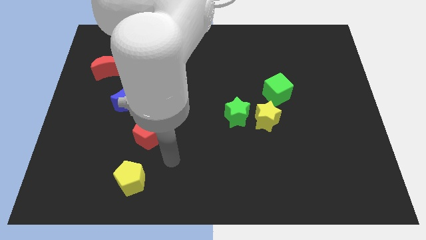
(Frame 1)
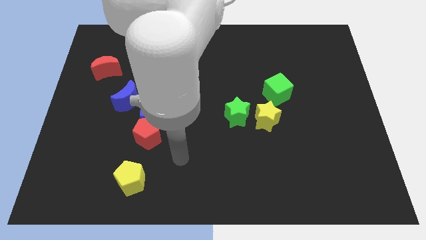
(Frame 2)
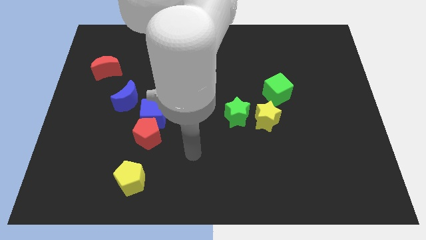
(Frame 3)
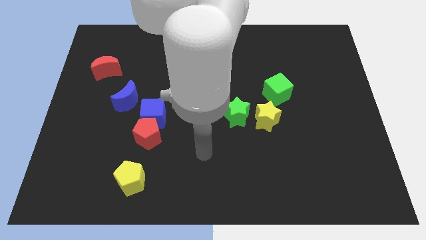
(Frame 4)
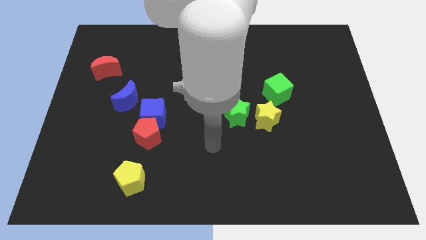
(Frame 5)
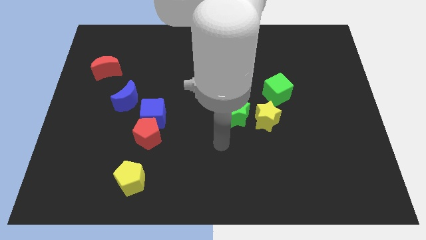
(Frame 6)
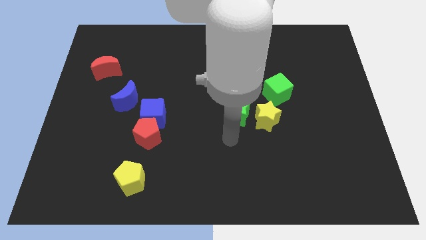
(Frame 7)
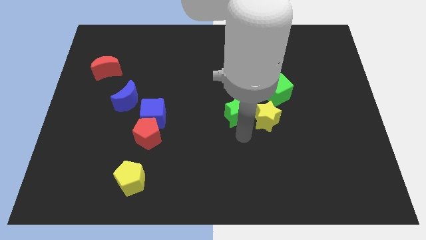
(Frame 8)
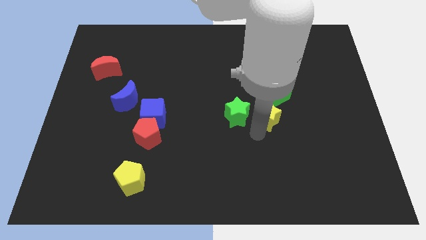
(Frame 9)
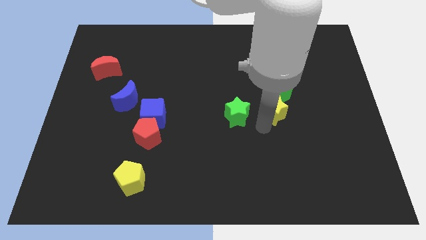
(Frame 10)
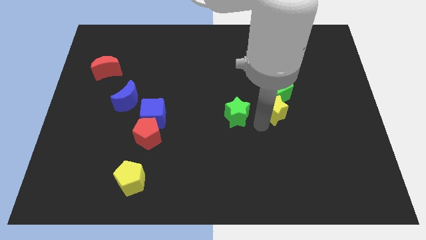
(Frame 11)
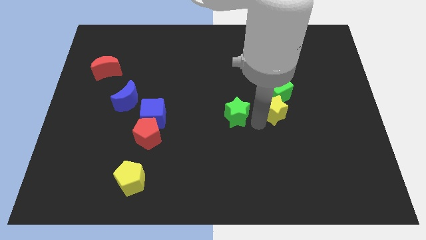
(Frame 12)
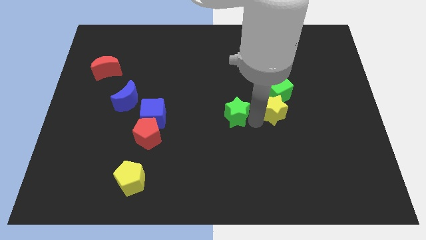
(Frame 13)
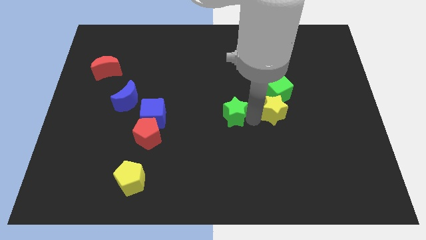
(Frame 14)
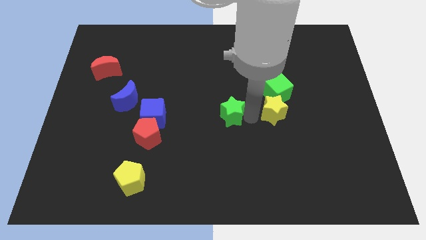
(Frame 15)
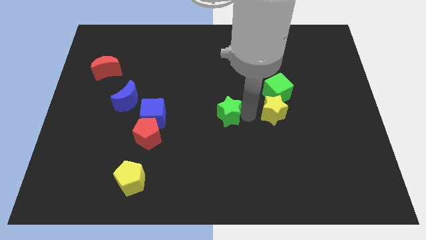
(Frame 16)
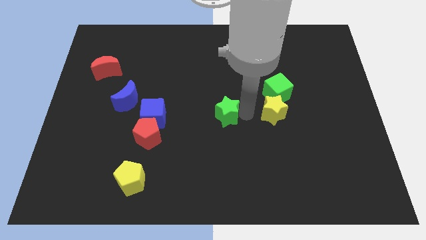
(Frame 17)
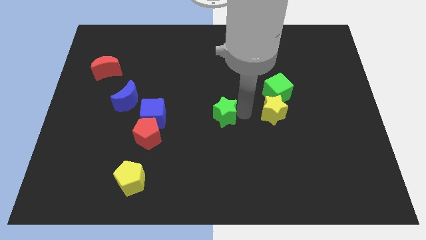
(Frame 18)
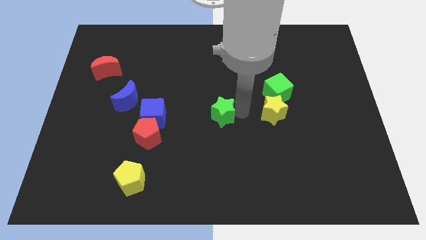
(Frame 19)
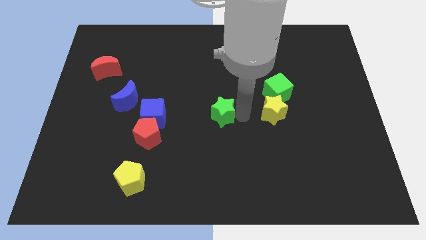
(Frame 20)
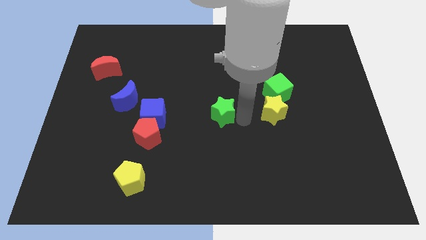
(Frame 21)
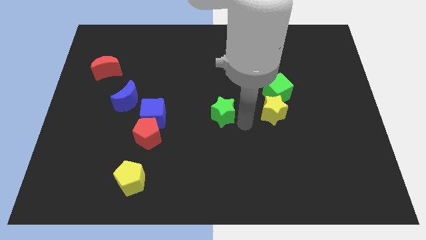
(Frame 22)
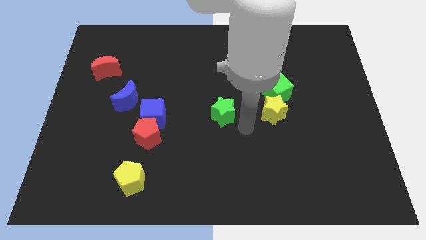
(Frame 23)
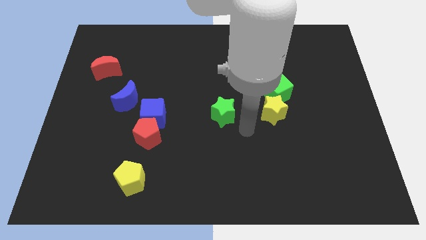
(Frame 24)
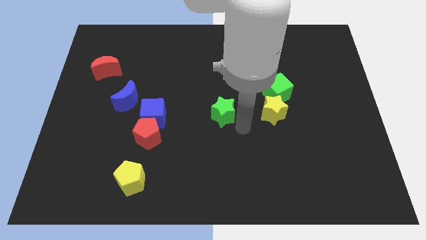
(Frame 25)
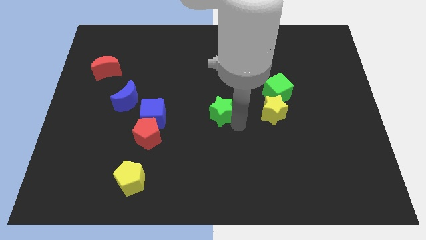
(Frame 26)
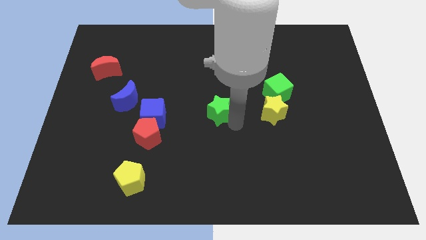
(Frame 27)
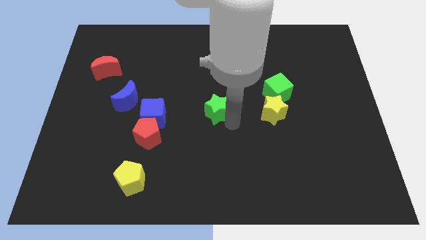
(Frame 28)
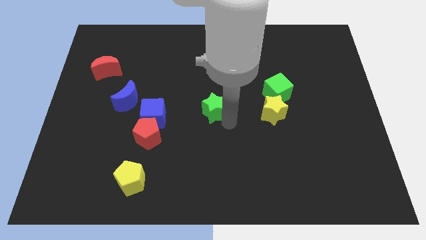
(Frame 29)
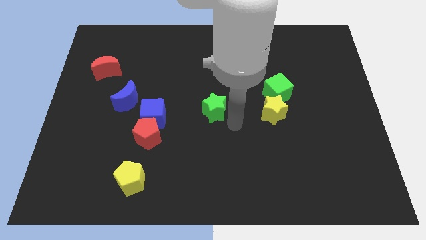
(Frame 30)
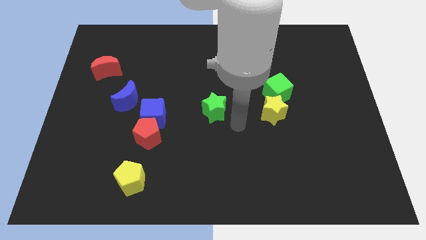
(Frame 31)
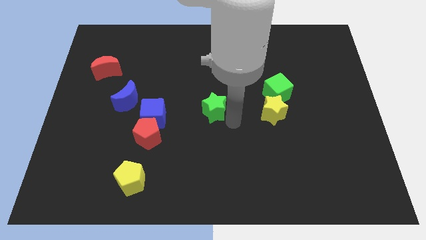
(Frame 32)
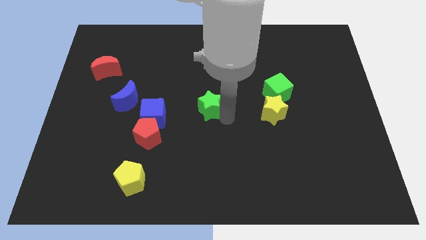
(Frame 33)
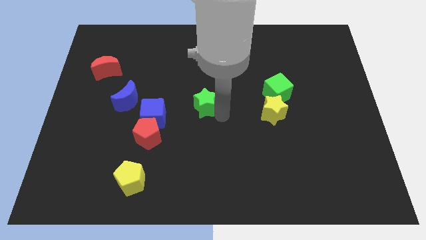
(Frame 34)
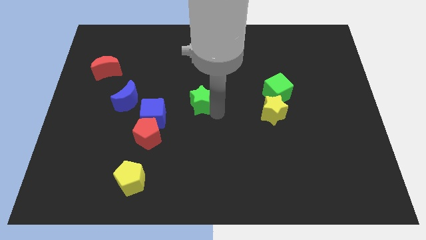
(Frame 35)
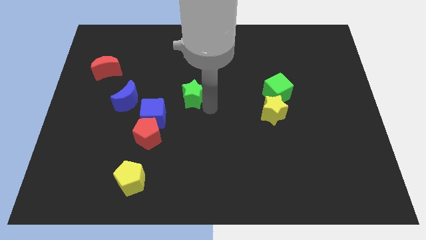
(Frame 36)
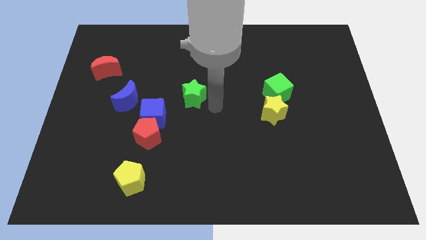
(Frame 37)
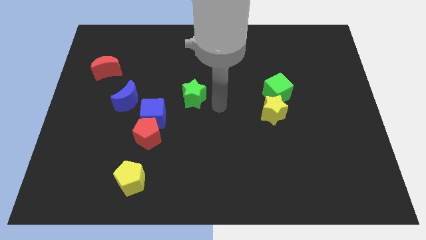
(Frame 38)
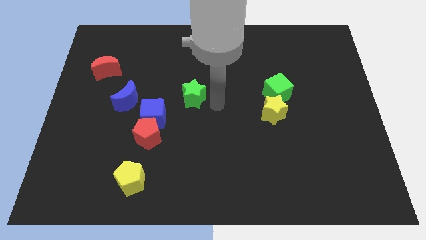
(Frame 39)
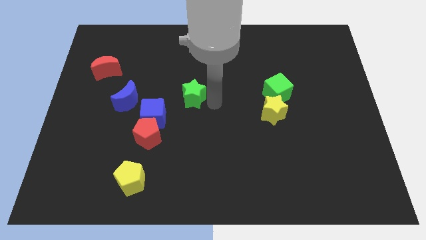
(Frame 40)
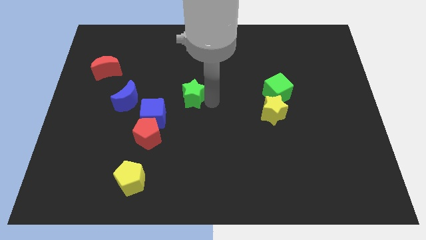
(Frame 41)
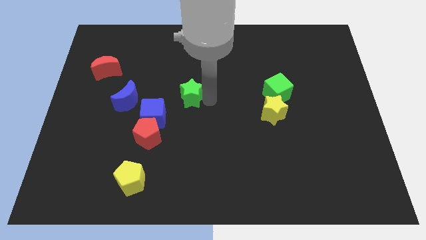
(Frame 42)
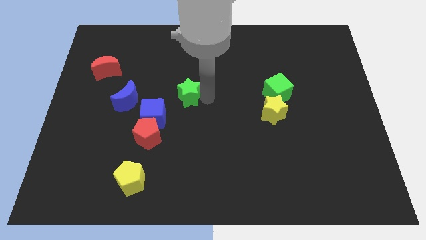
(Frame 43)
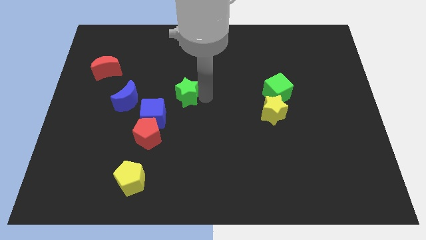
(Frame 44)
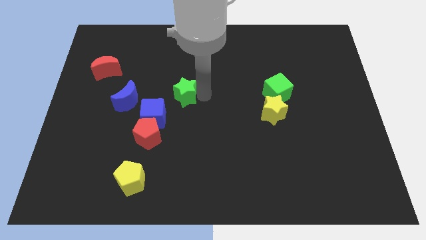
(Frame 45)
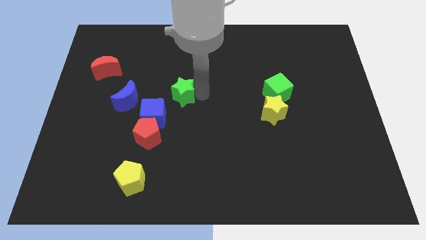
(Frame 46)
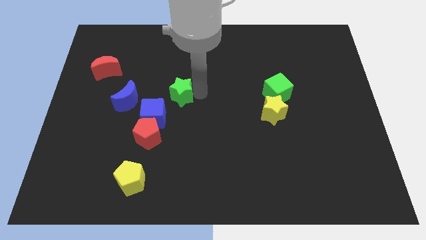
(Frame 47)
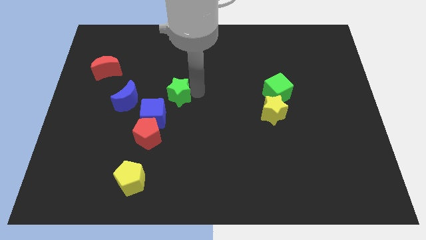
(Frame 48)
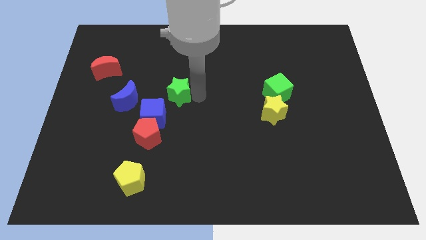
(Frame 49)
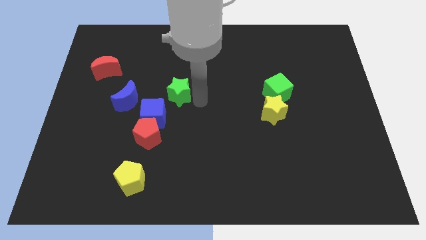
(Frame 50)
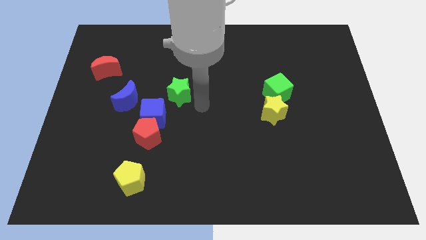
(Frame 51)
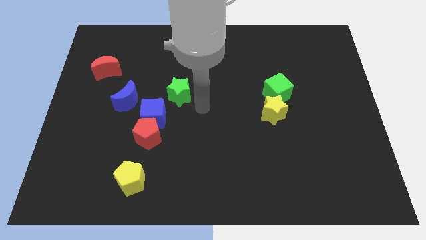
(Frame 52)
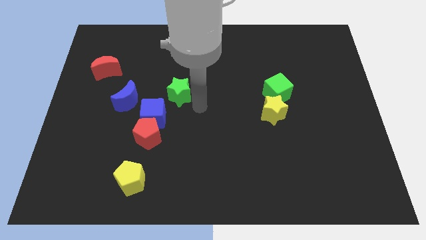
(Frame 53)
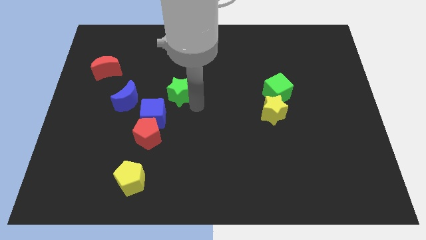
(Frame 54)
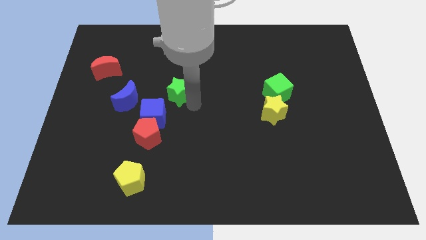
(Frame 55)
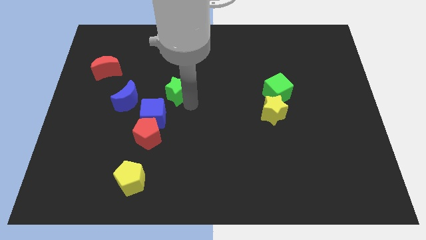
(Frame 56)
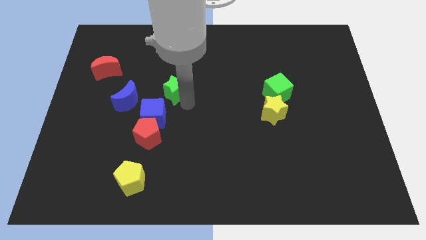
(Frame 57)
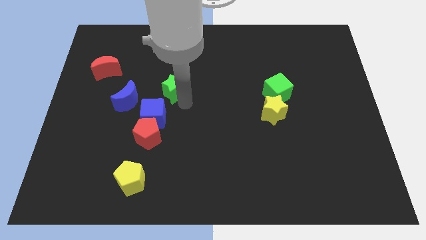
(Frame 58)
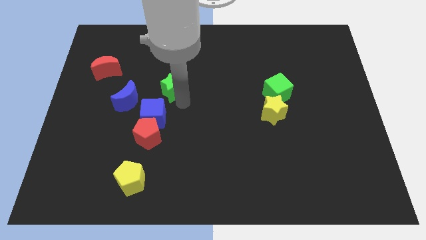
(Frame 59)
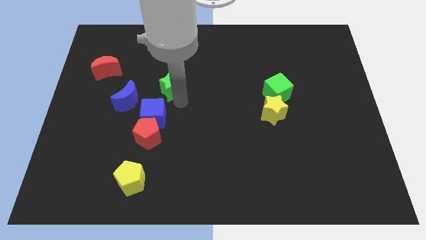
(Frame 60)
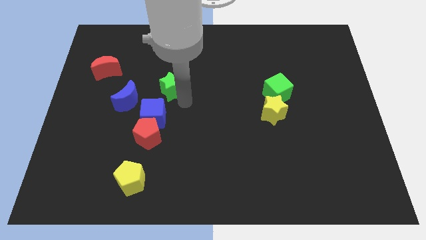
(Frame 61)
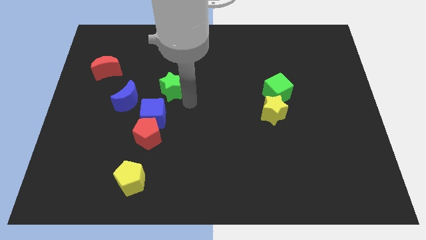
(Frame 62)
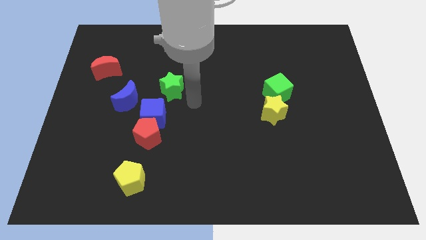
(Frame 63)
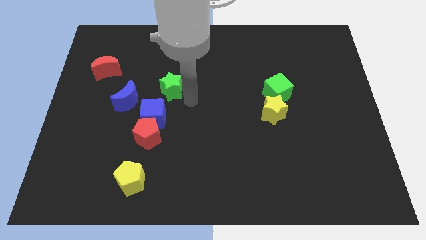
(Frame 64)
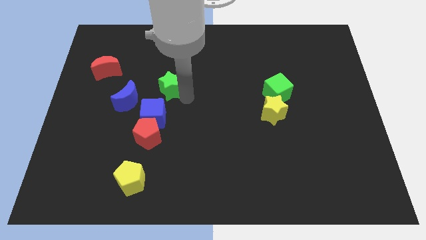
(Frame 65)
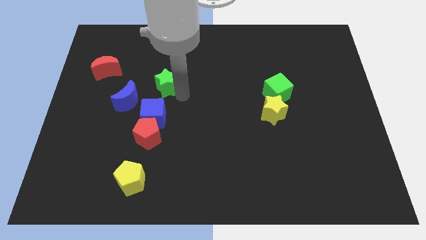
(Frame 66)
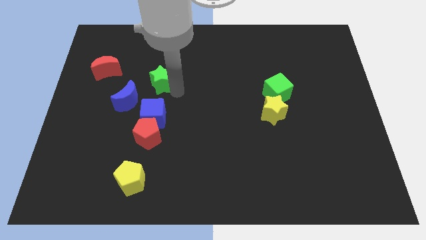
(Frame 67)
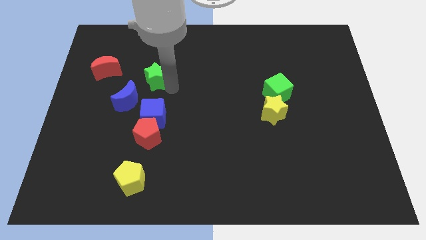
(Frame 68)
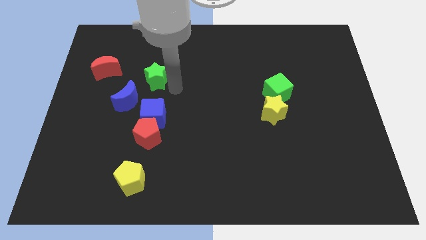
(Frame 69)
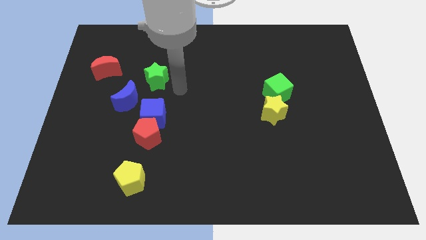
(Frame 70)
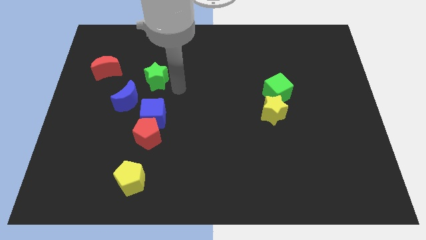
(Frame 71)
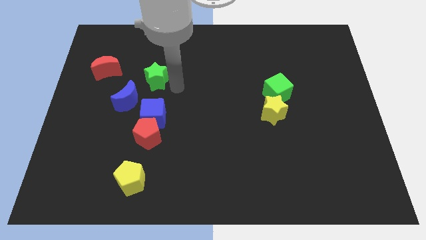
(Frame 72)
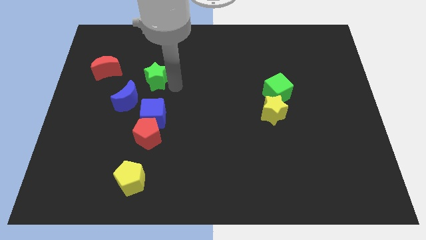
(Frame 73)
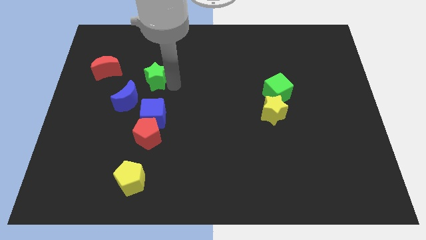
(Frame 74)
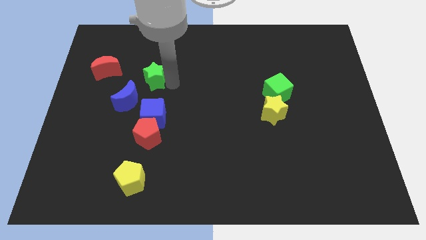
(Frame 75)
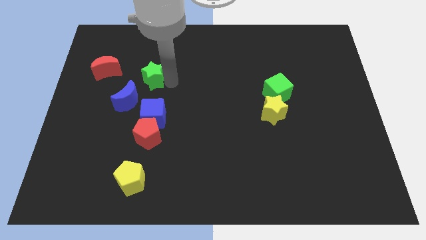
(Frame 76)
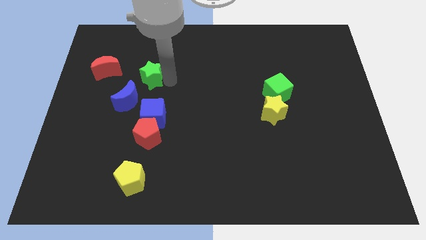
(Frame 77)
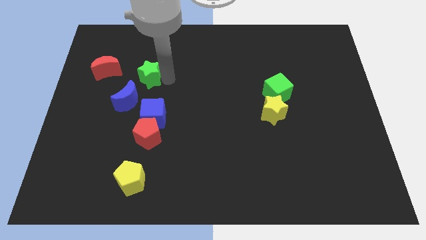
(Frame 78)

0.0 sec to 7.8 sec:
slide the green star above the blue moon

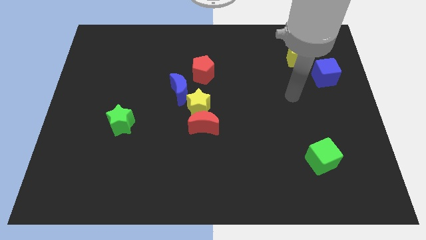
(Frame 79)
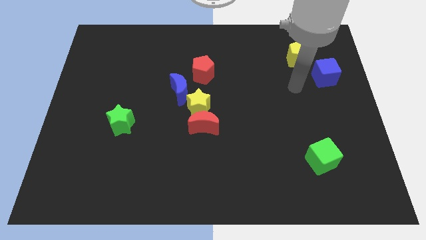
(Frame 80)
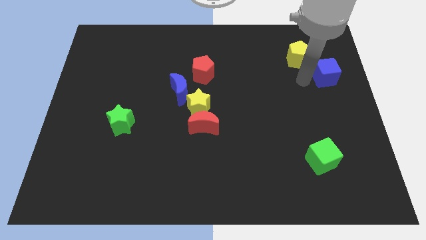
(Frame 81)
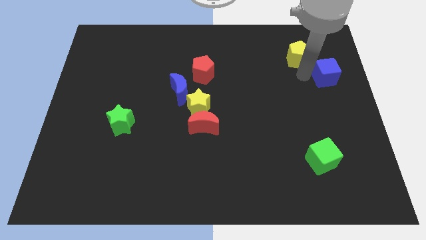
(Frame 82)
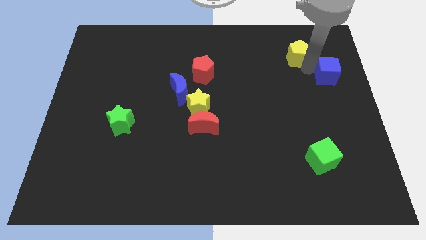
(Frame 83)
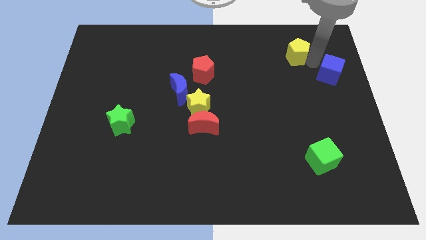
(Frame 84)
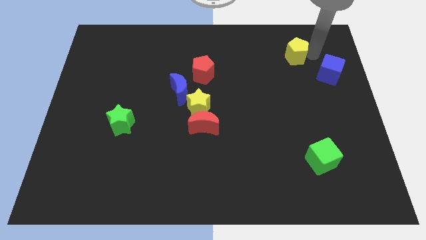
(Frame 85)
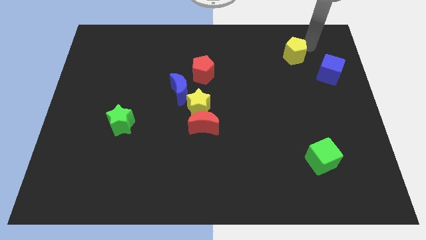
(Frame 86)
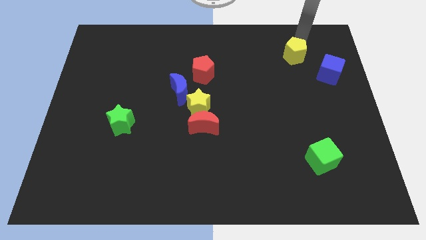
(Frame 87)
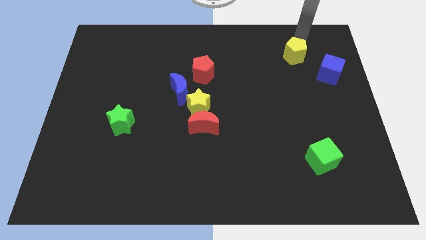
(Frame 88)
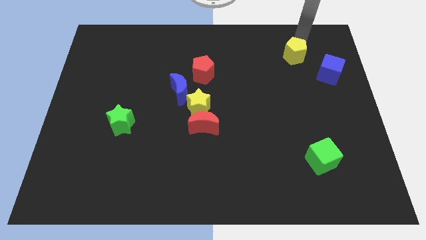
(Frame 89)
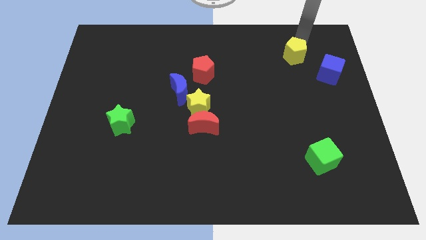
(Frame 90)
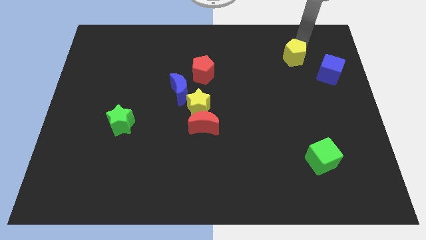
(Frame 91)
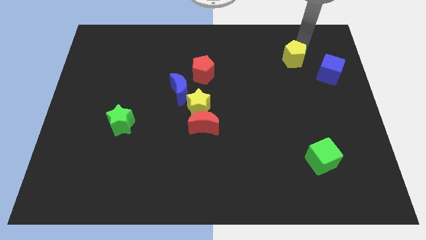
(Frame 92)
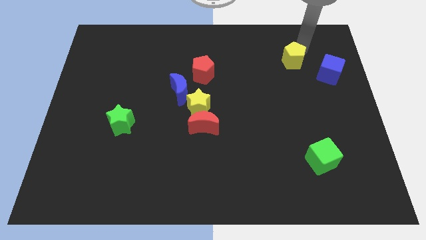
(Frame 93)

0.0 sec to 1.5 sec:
slide the yellow pentagon to the left side of the blue cube
